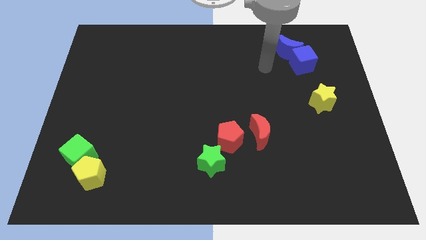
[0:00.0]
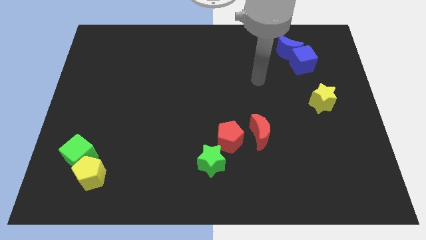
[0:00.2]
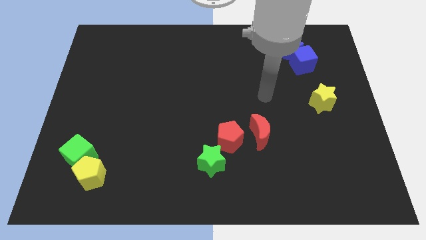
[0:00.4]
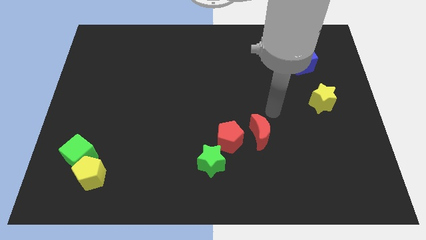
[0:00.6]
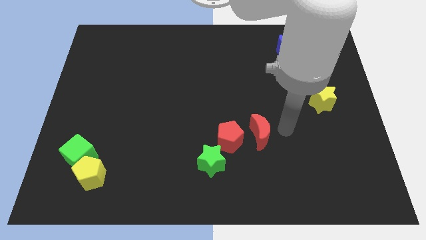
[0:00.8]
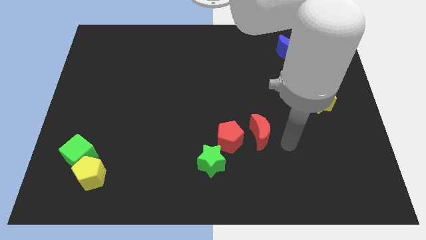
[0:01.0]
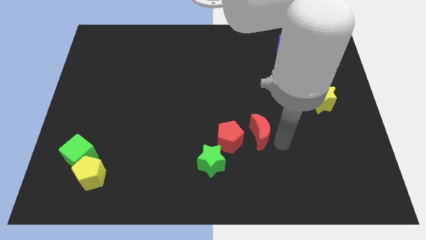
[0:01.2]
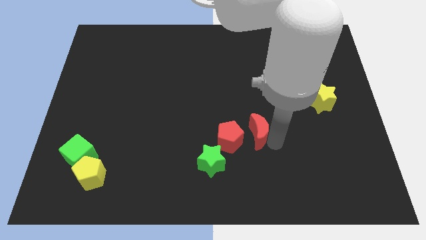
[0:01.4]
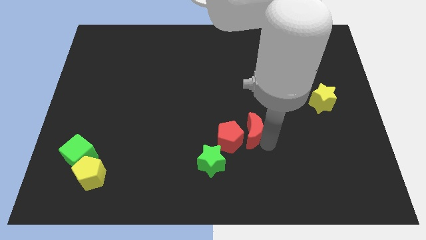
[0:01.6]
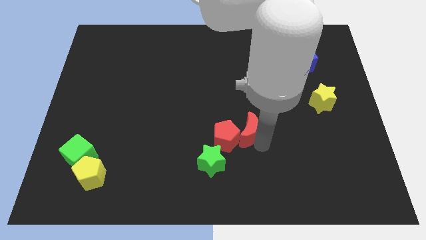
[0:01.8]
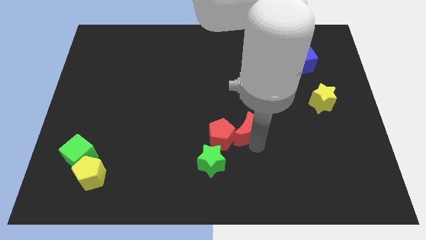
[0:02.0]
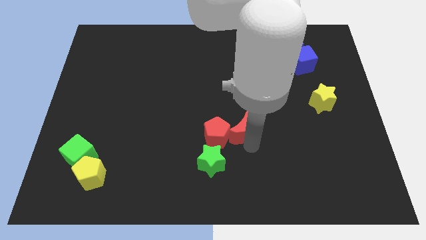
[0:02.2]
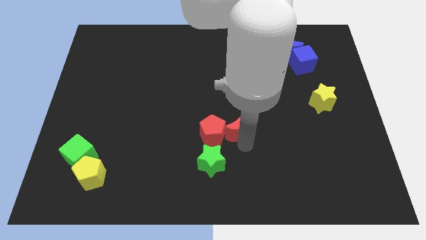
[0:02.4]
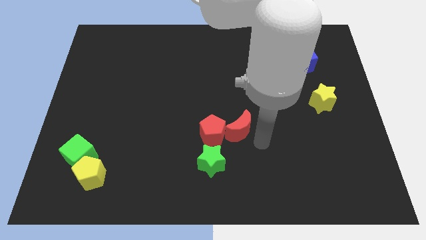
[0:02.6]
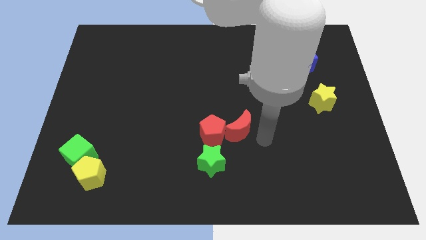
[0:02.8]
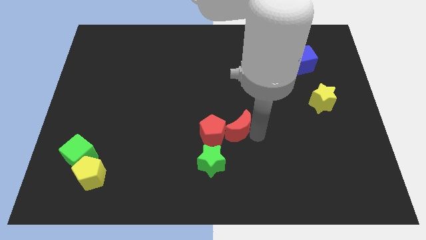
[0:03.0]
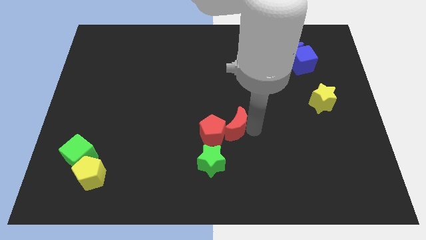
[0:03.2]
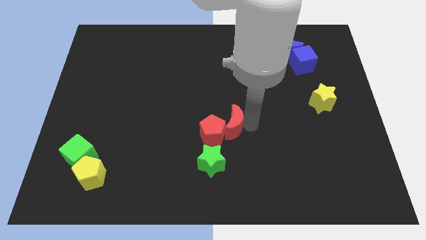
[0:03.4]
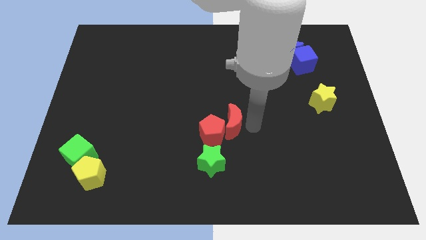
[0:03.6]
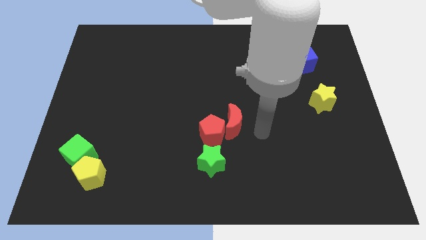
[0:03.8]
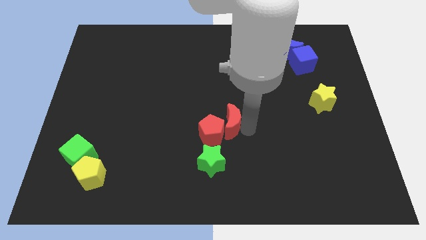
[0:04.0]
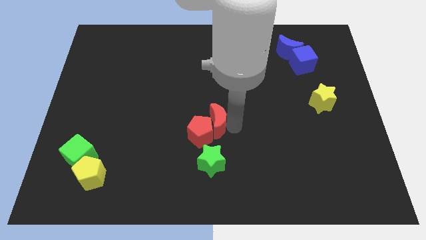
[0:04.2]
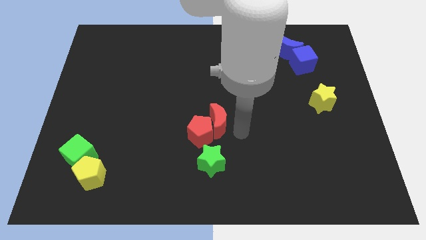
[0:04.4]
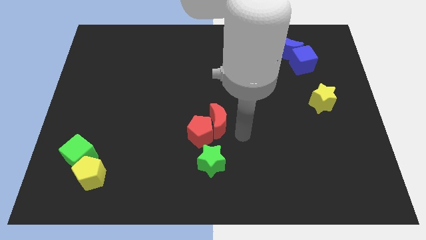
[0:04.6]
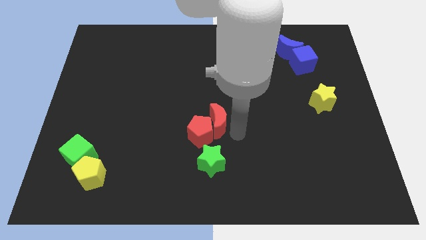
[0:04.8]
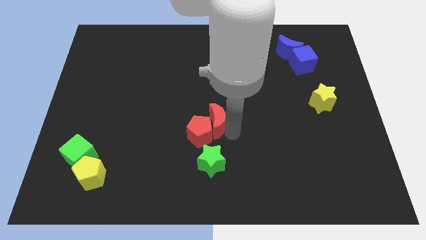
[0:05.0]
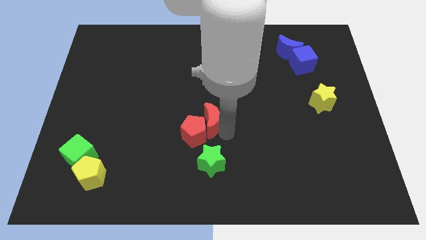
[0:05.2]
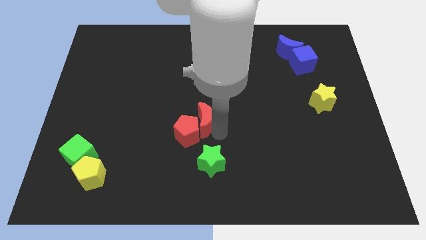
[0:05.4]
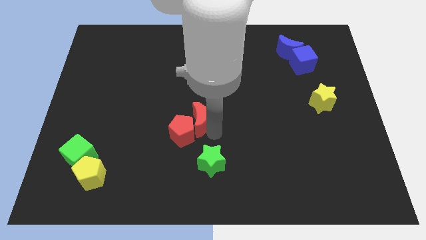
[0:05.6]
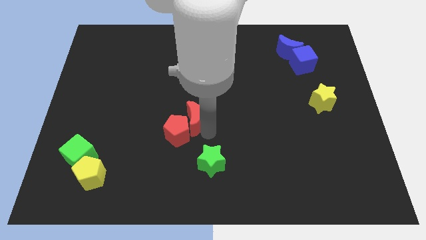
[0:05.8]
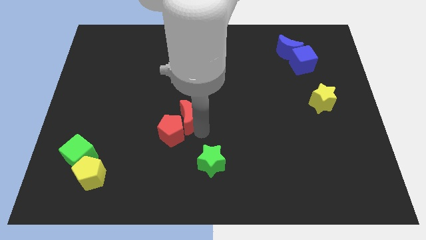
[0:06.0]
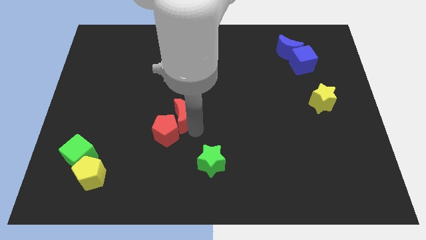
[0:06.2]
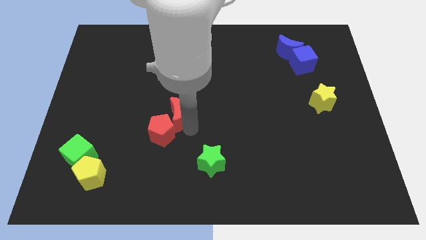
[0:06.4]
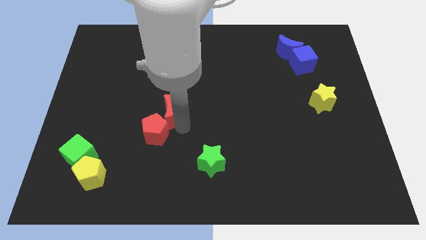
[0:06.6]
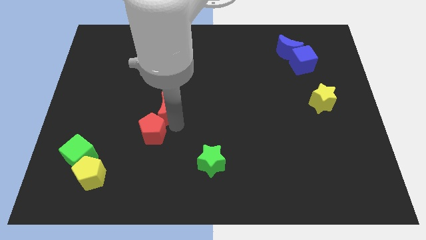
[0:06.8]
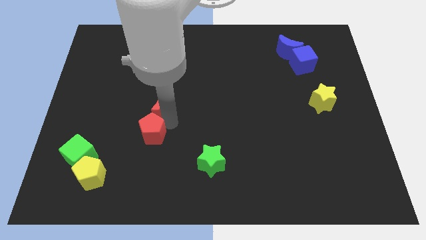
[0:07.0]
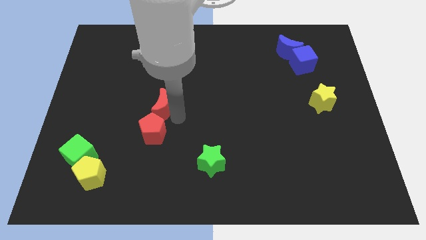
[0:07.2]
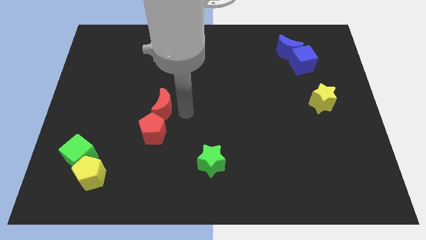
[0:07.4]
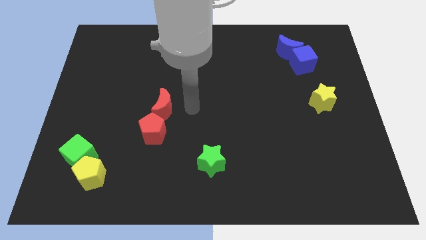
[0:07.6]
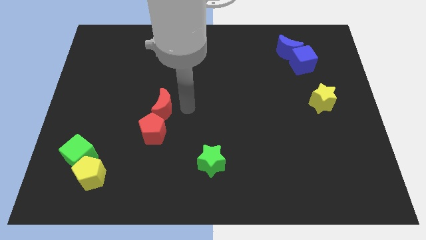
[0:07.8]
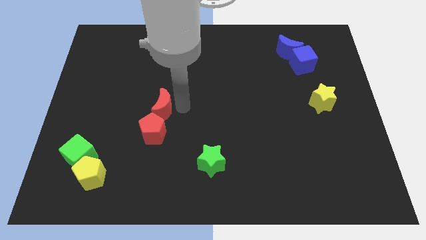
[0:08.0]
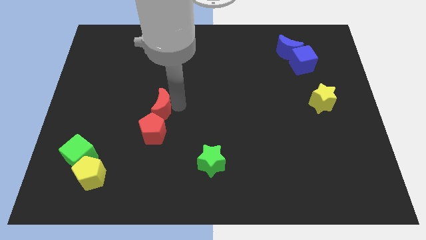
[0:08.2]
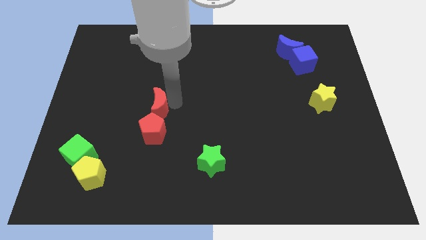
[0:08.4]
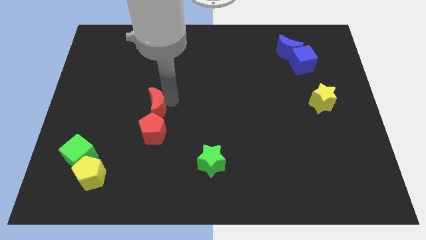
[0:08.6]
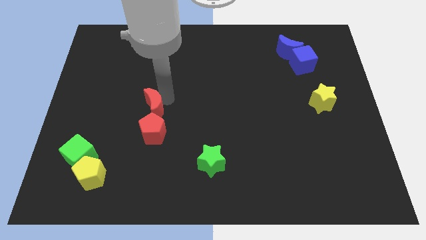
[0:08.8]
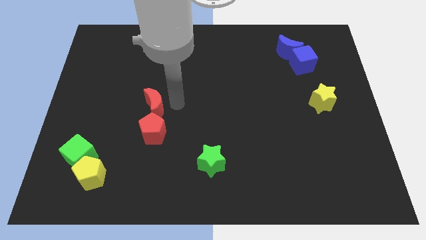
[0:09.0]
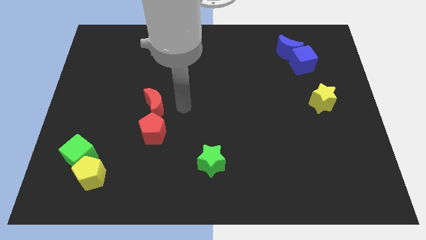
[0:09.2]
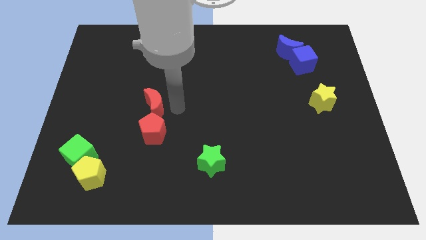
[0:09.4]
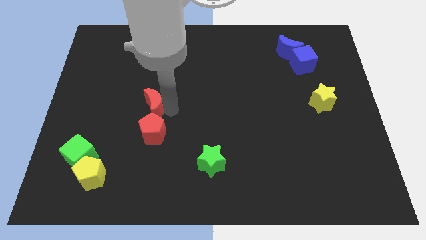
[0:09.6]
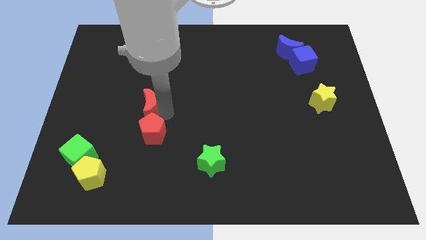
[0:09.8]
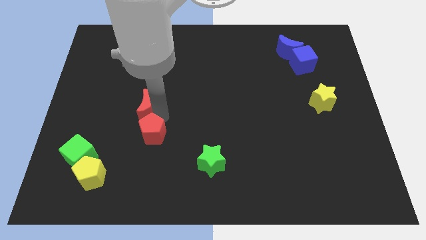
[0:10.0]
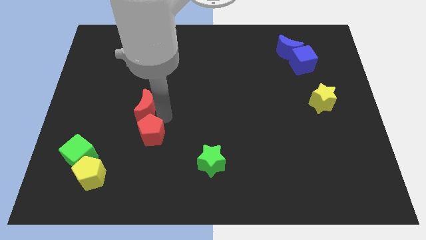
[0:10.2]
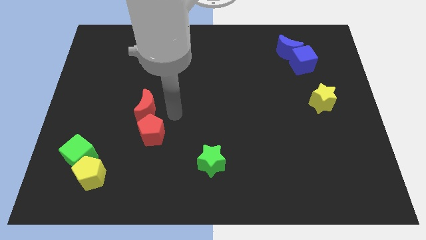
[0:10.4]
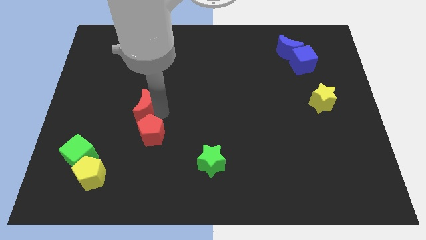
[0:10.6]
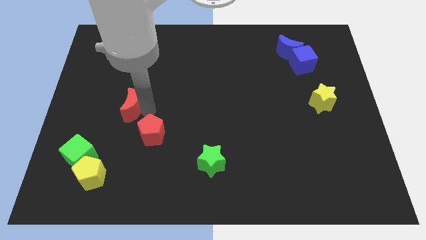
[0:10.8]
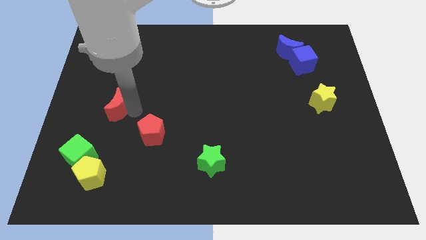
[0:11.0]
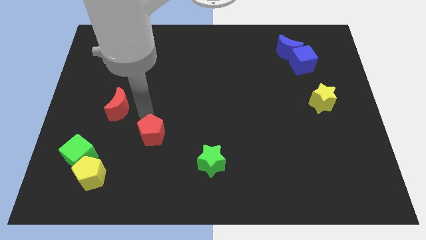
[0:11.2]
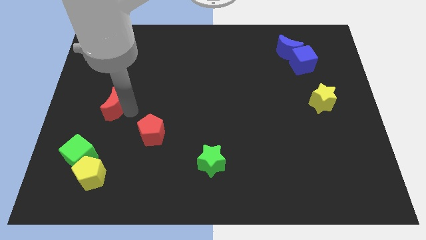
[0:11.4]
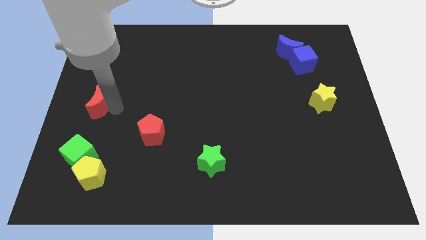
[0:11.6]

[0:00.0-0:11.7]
slide the red moon to the left side

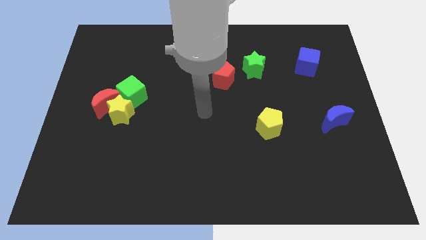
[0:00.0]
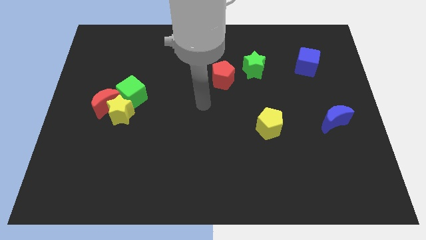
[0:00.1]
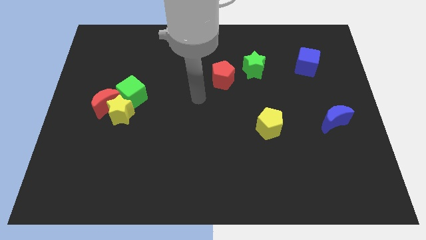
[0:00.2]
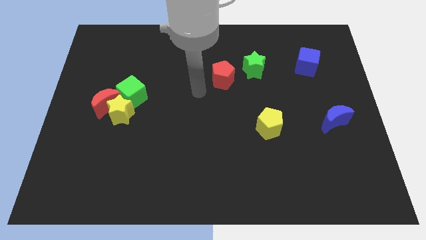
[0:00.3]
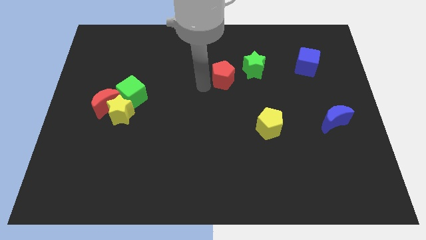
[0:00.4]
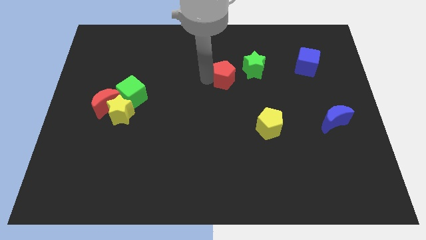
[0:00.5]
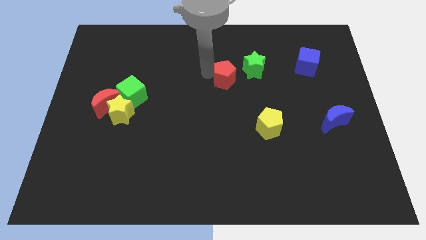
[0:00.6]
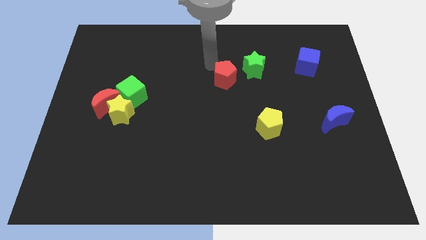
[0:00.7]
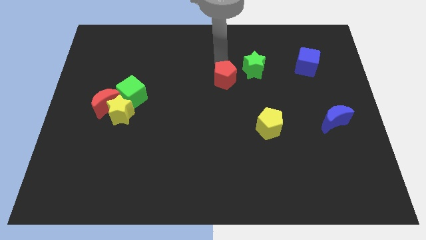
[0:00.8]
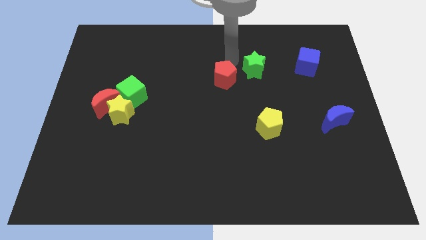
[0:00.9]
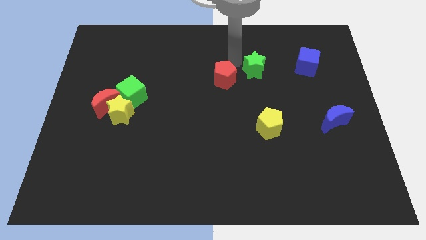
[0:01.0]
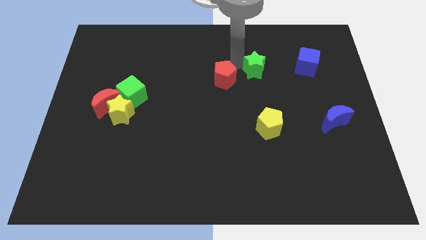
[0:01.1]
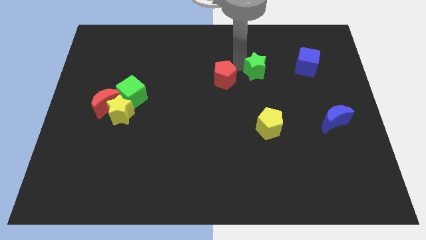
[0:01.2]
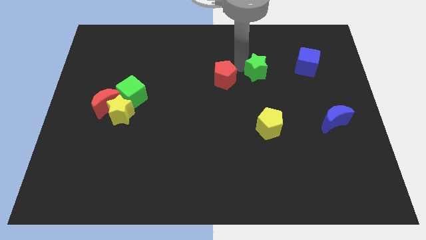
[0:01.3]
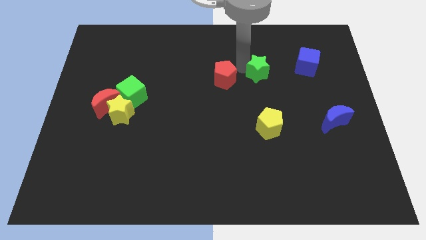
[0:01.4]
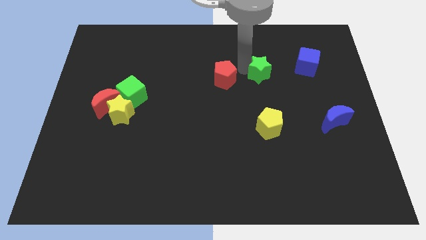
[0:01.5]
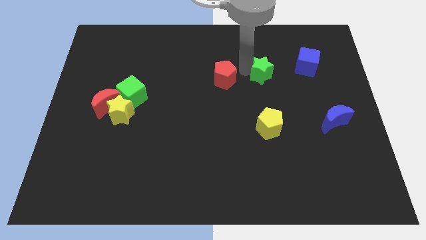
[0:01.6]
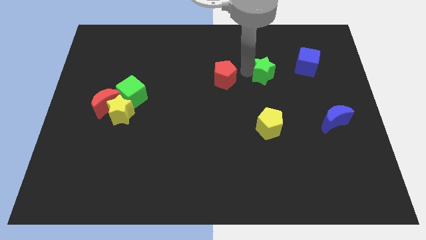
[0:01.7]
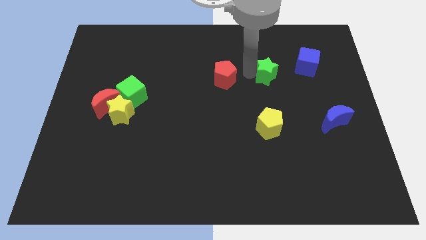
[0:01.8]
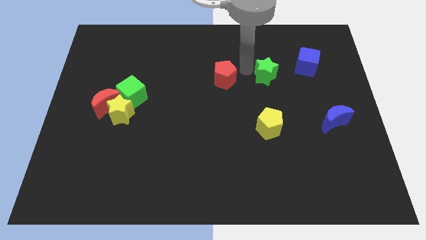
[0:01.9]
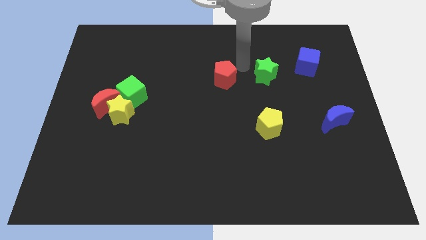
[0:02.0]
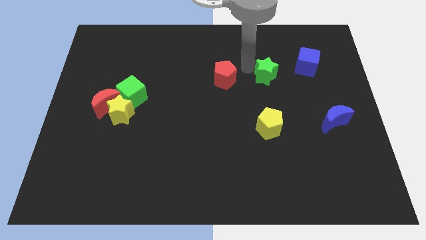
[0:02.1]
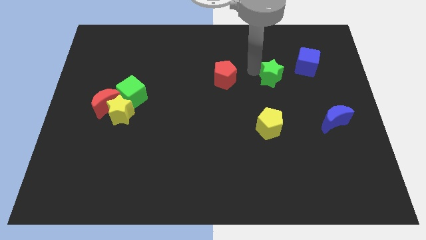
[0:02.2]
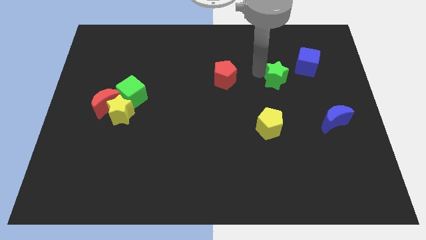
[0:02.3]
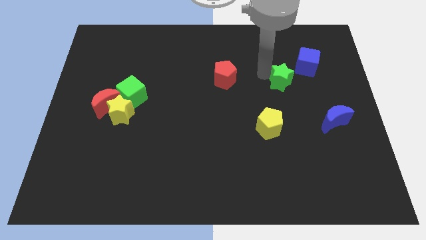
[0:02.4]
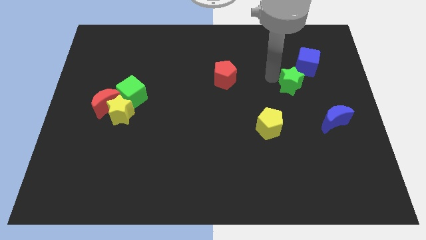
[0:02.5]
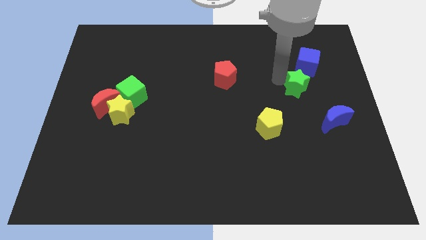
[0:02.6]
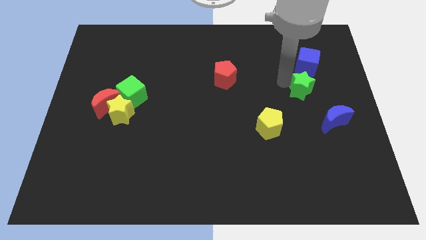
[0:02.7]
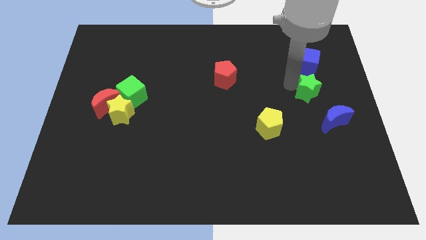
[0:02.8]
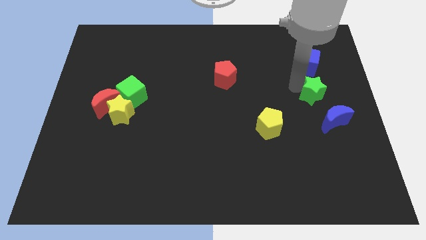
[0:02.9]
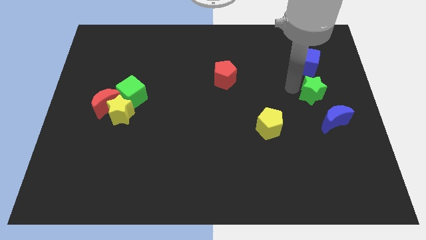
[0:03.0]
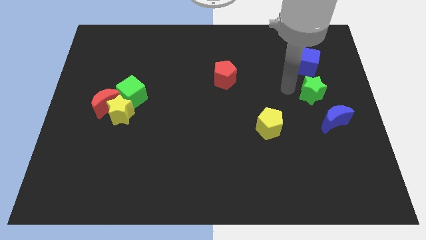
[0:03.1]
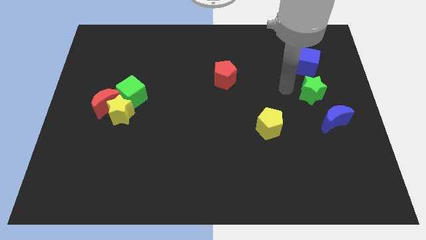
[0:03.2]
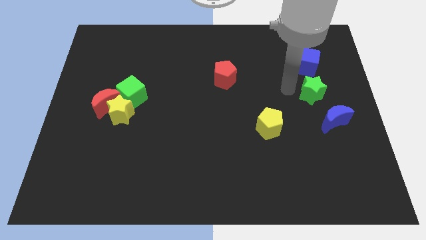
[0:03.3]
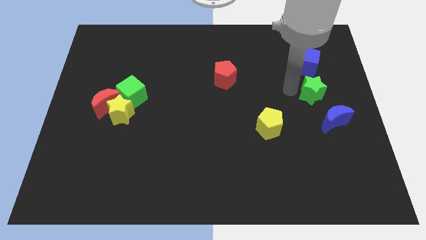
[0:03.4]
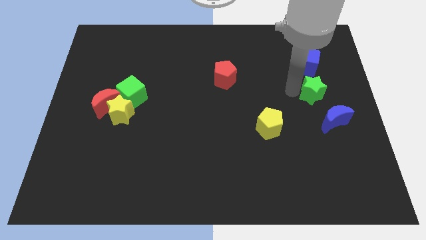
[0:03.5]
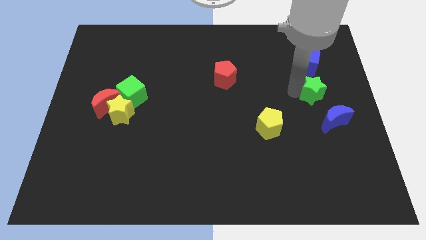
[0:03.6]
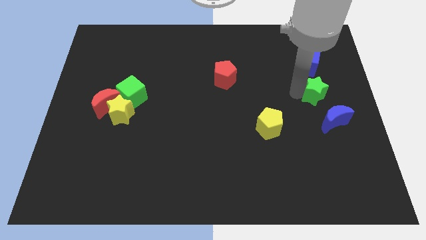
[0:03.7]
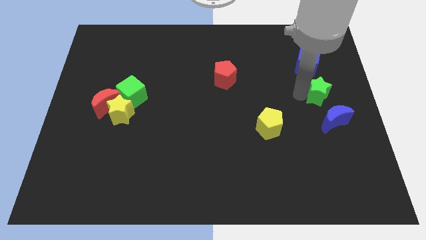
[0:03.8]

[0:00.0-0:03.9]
move the green star to the center right
